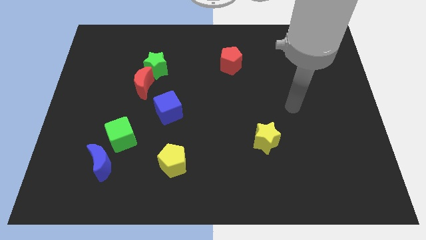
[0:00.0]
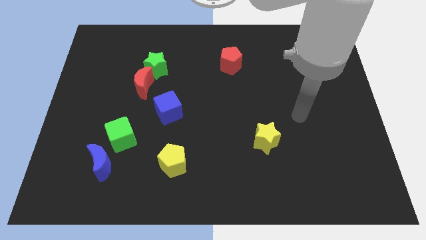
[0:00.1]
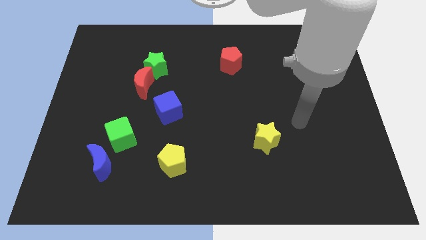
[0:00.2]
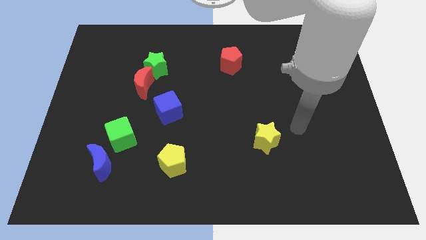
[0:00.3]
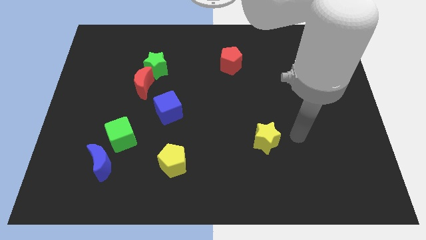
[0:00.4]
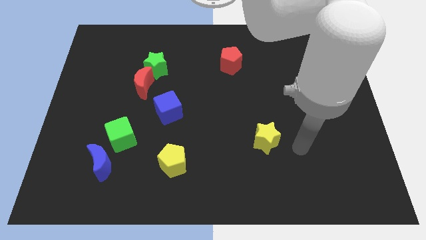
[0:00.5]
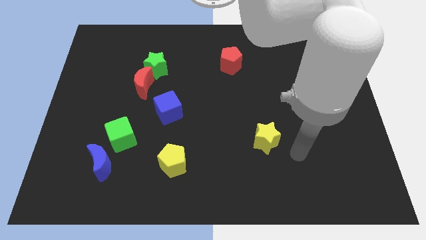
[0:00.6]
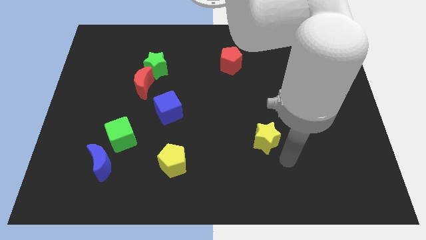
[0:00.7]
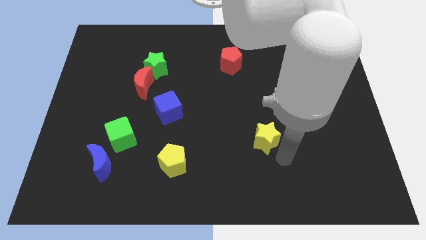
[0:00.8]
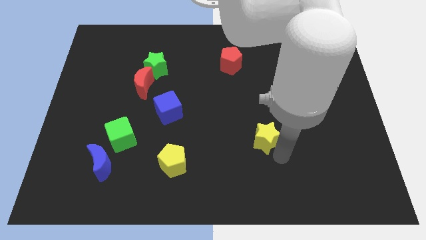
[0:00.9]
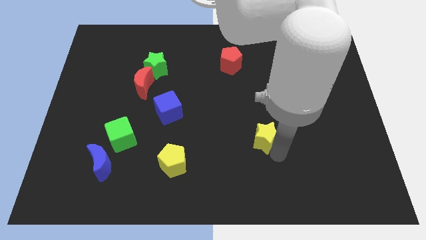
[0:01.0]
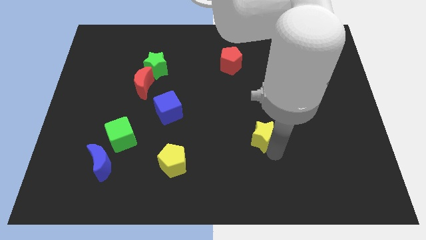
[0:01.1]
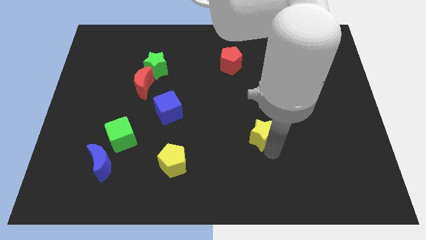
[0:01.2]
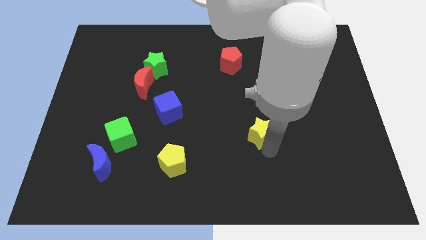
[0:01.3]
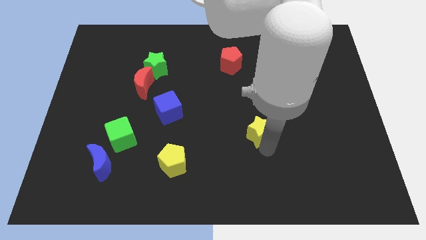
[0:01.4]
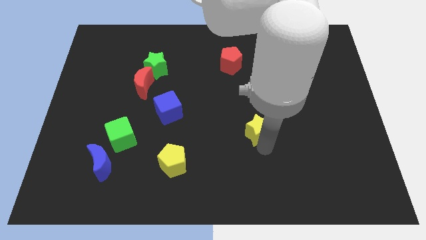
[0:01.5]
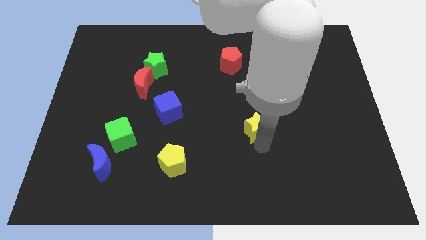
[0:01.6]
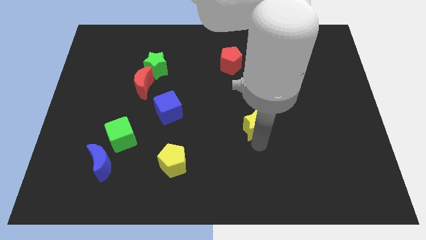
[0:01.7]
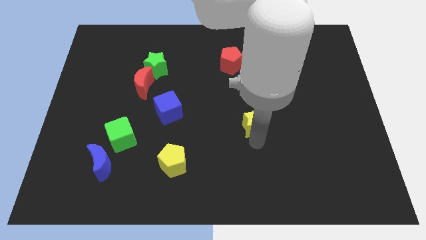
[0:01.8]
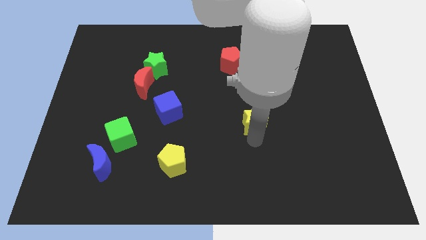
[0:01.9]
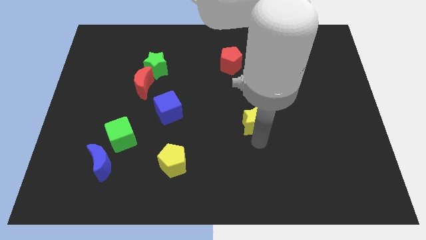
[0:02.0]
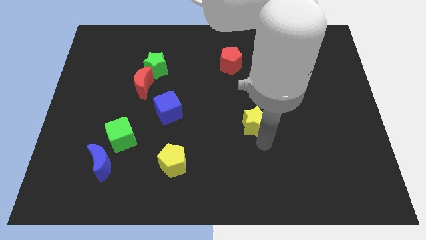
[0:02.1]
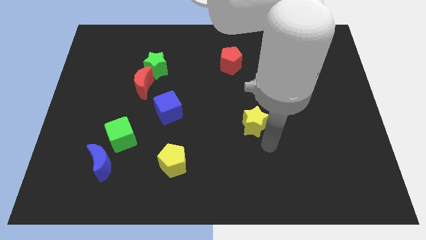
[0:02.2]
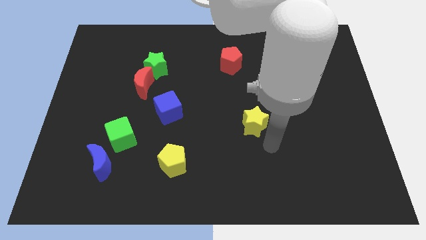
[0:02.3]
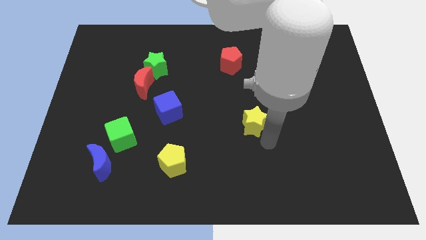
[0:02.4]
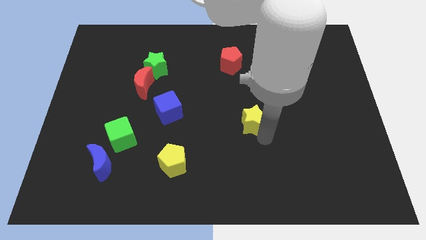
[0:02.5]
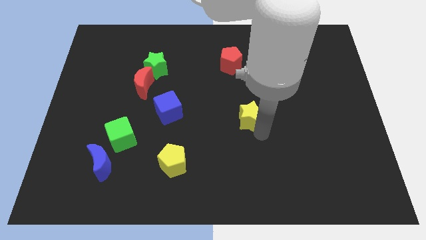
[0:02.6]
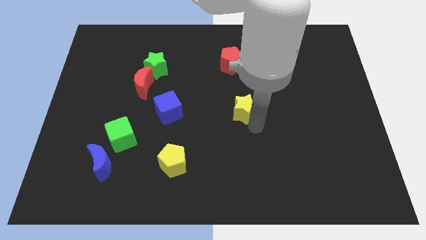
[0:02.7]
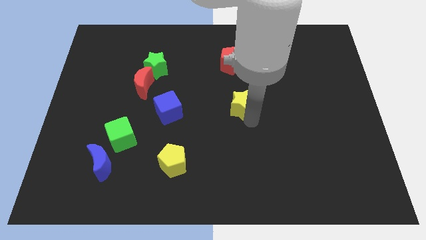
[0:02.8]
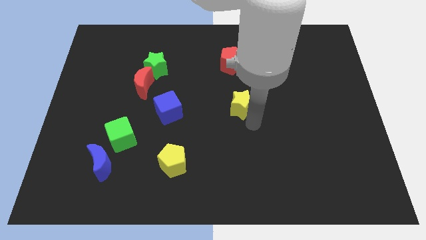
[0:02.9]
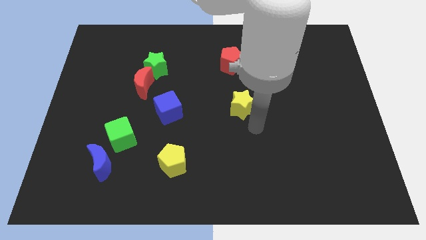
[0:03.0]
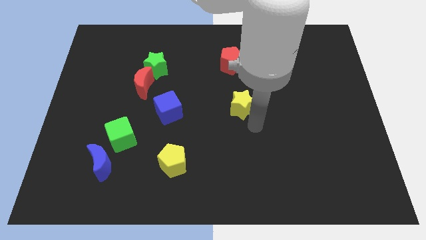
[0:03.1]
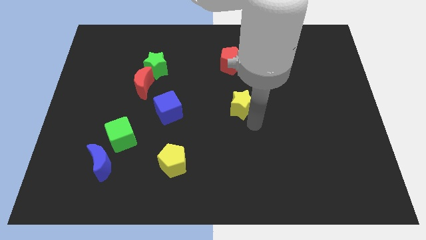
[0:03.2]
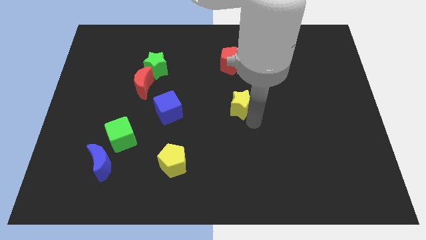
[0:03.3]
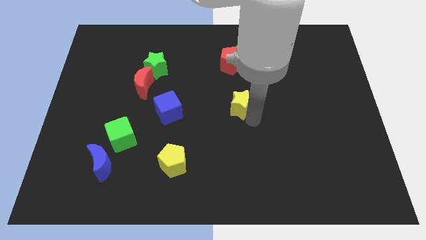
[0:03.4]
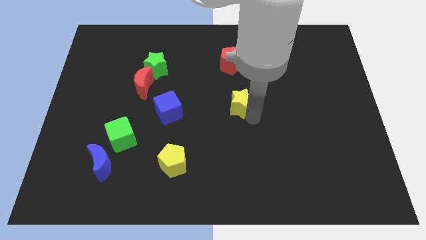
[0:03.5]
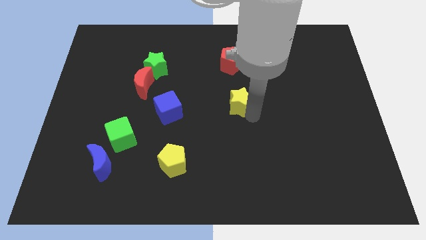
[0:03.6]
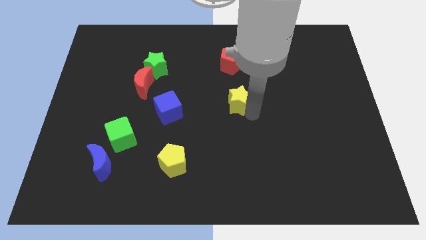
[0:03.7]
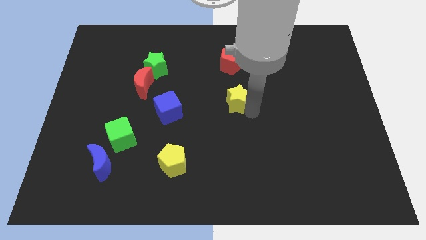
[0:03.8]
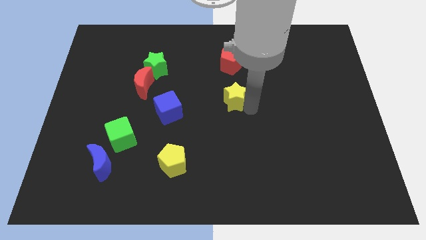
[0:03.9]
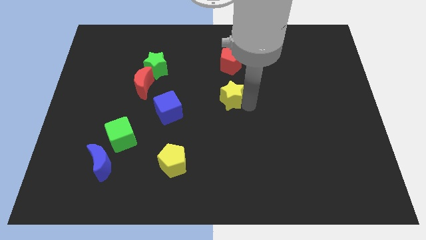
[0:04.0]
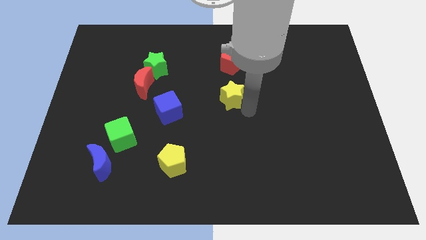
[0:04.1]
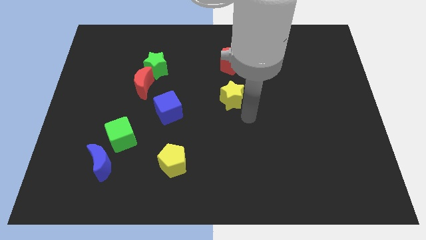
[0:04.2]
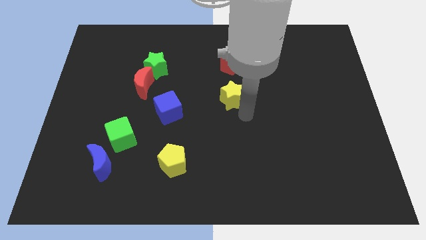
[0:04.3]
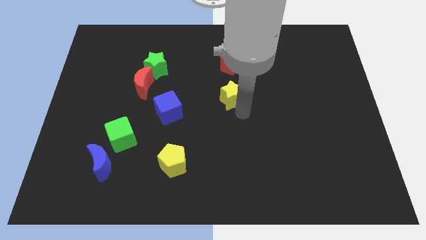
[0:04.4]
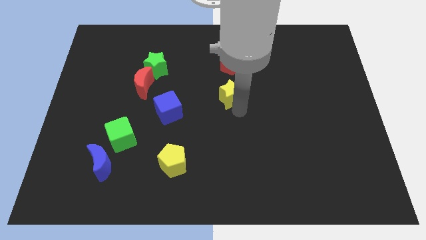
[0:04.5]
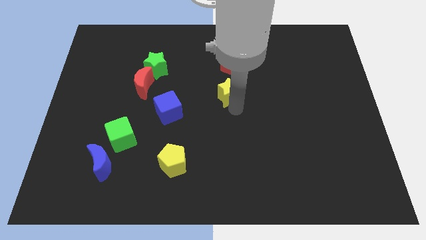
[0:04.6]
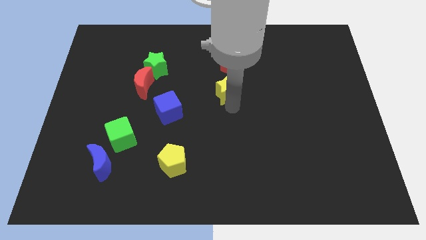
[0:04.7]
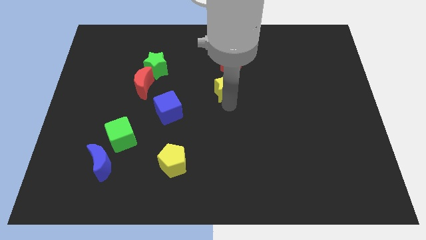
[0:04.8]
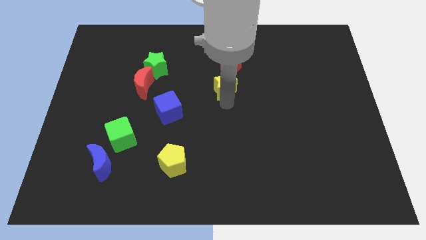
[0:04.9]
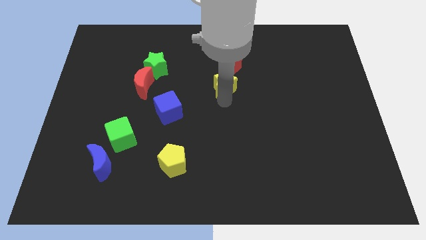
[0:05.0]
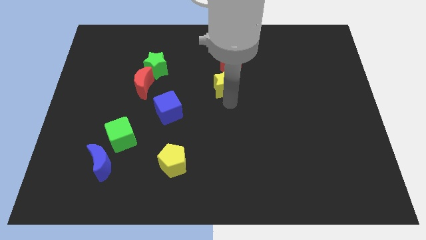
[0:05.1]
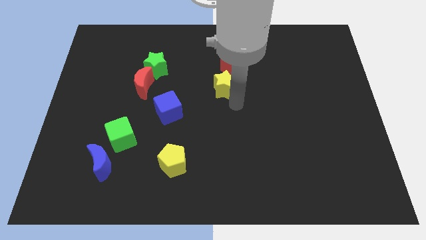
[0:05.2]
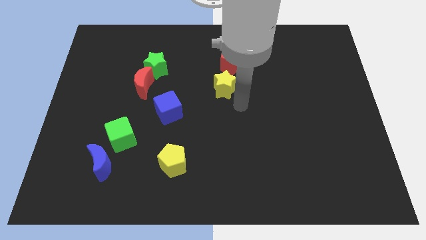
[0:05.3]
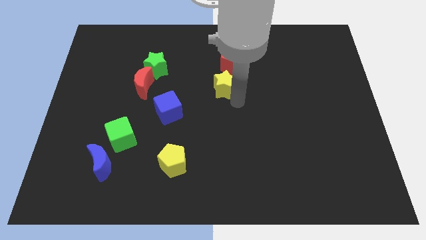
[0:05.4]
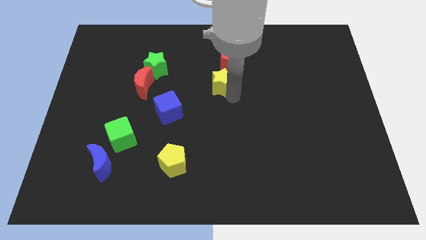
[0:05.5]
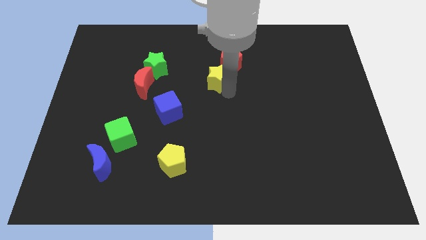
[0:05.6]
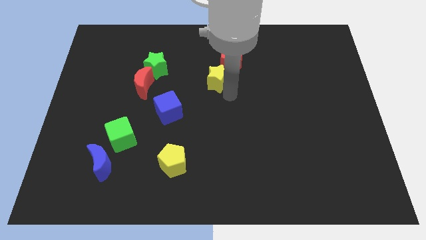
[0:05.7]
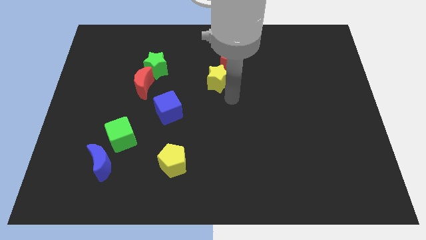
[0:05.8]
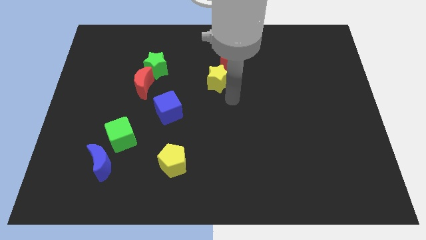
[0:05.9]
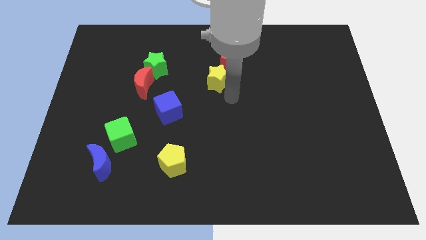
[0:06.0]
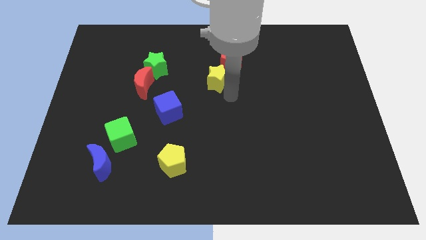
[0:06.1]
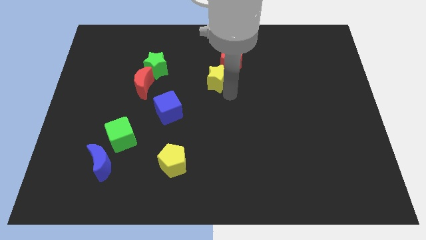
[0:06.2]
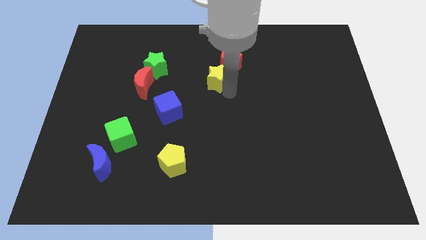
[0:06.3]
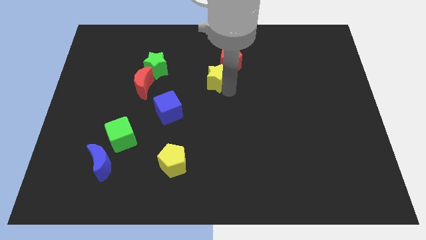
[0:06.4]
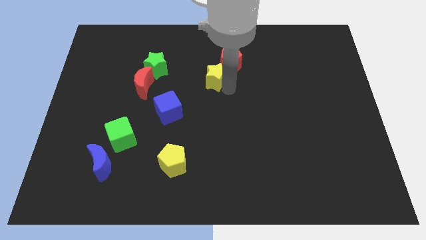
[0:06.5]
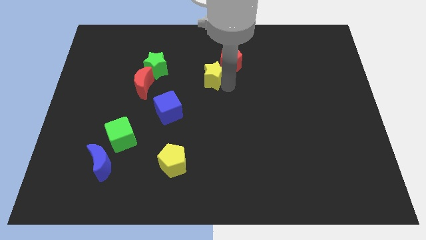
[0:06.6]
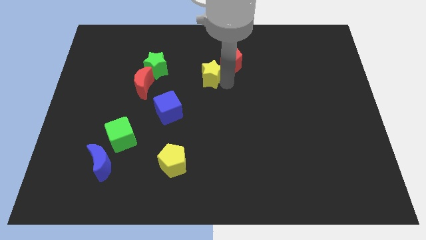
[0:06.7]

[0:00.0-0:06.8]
move the yellow star just left of the red pentagon

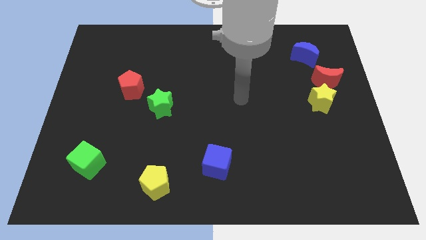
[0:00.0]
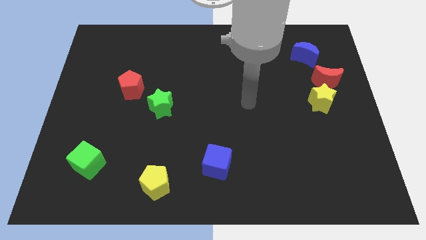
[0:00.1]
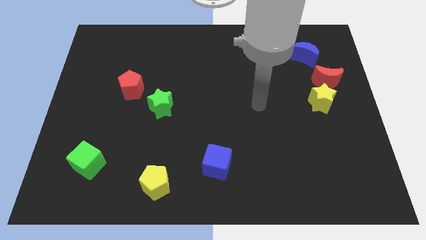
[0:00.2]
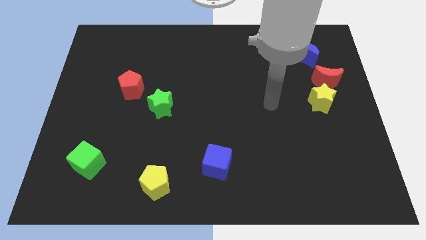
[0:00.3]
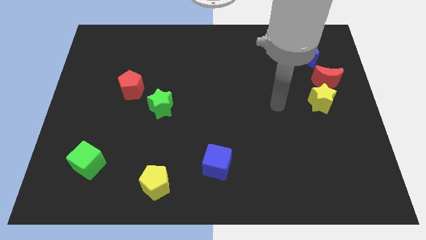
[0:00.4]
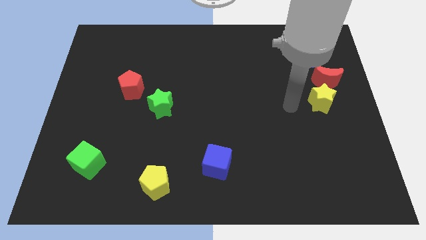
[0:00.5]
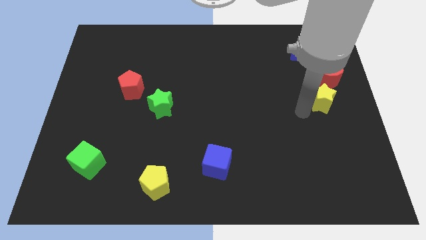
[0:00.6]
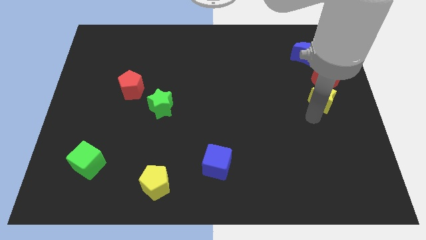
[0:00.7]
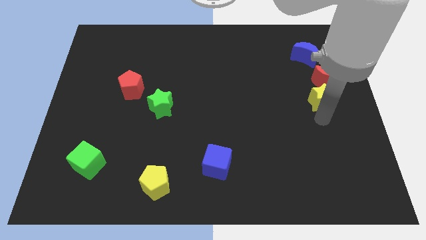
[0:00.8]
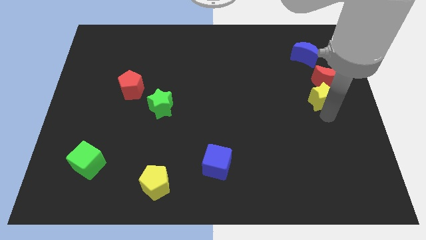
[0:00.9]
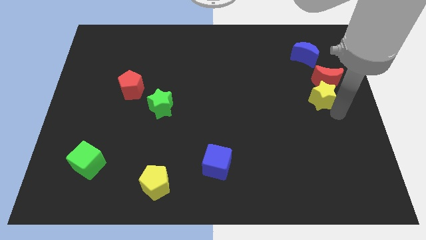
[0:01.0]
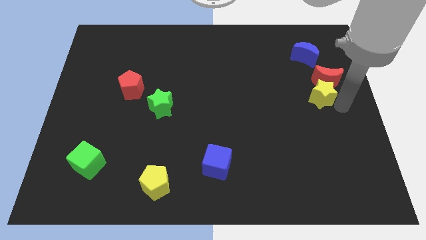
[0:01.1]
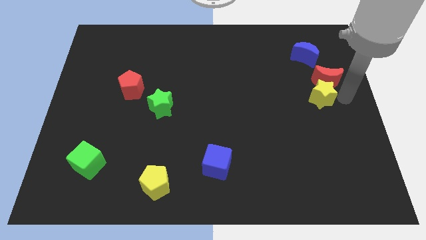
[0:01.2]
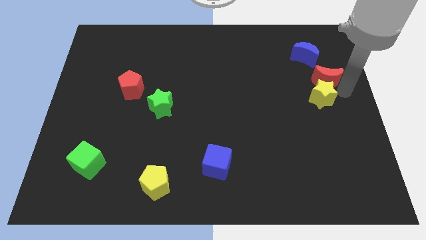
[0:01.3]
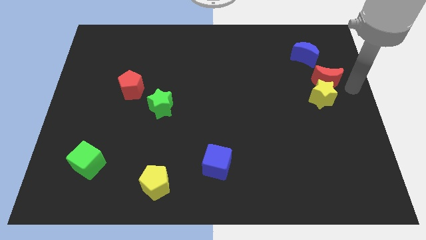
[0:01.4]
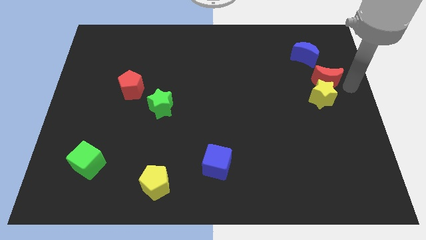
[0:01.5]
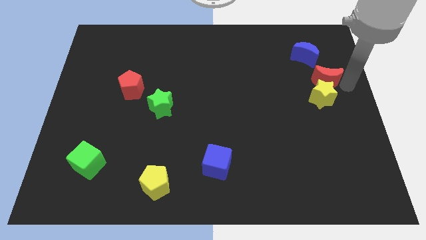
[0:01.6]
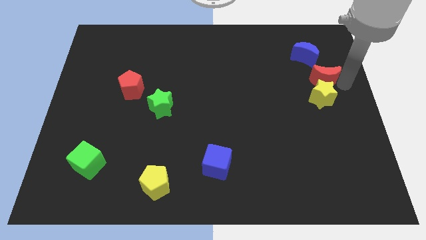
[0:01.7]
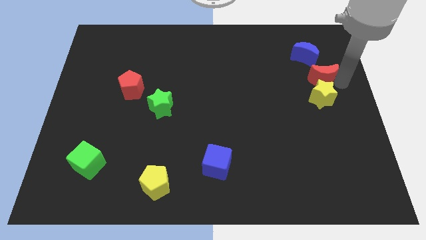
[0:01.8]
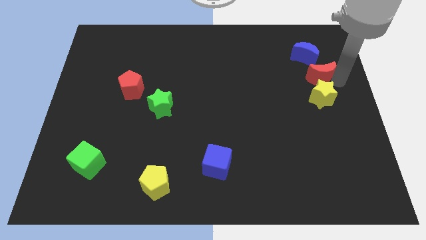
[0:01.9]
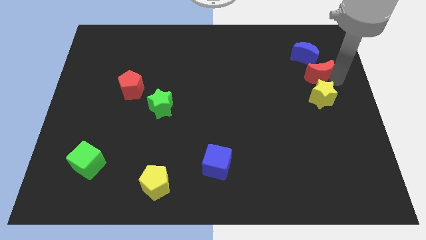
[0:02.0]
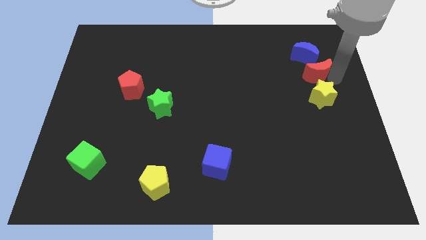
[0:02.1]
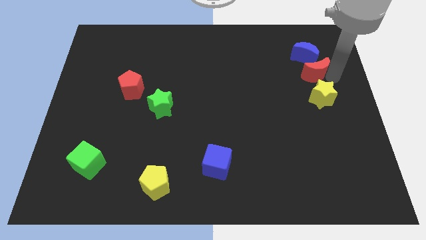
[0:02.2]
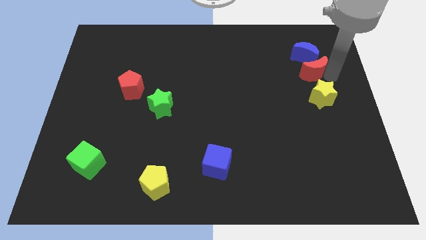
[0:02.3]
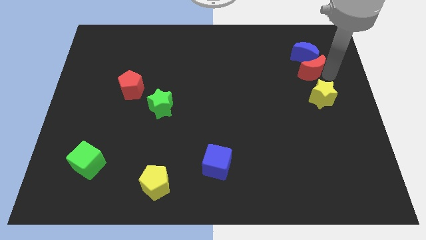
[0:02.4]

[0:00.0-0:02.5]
move the red moon to the bottom left side of the blue moon
